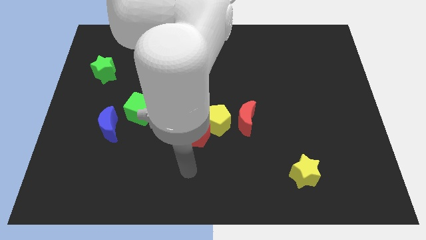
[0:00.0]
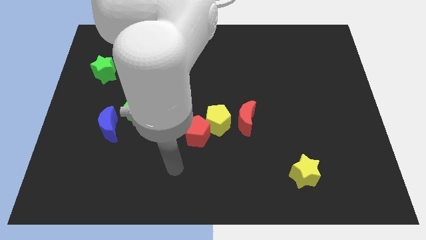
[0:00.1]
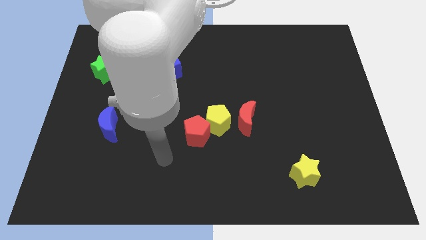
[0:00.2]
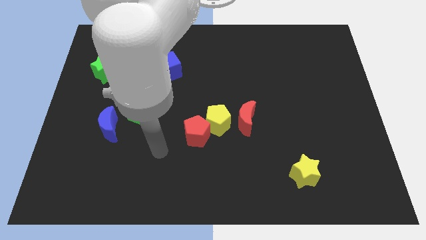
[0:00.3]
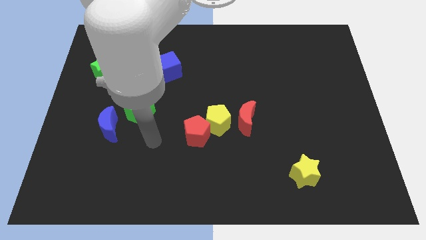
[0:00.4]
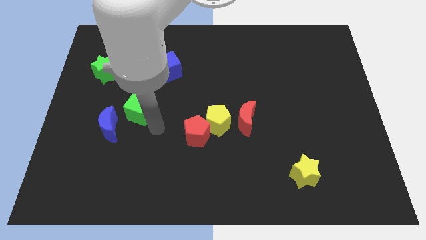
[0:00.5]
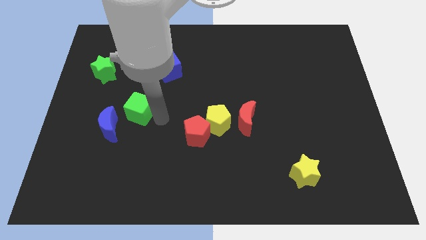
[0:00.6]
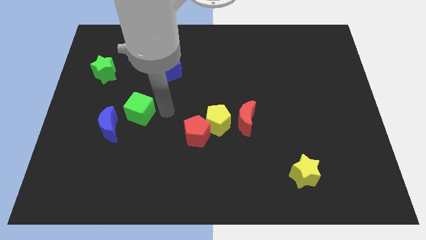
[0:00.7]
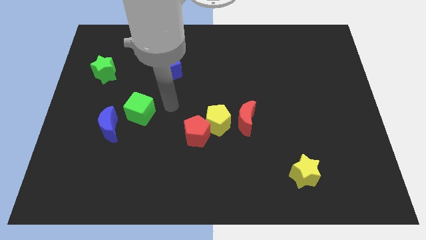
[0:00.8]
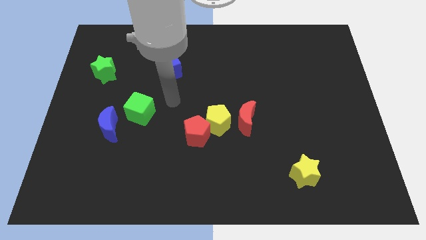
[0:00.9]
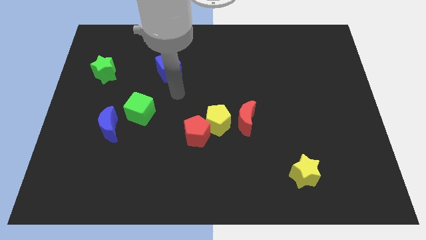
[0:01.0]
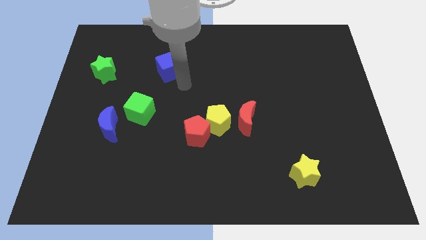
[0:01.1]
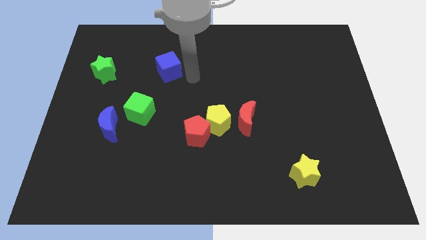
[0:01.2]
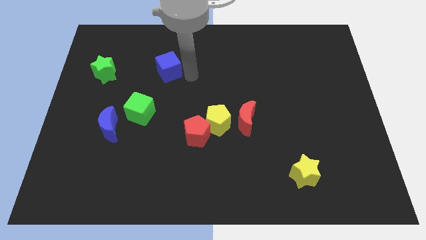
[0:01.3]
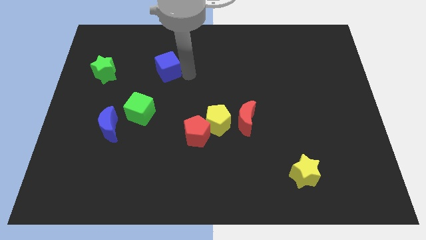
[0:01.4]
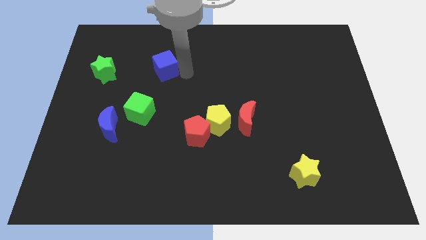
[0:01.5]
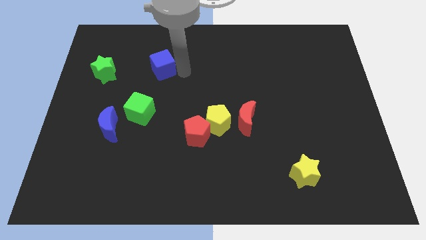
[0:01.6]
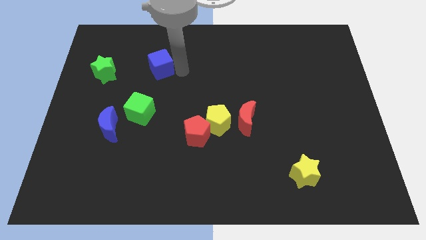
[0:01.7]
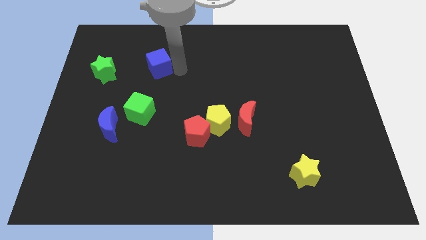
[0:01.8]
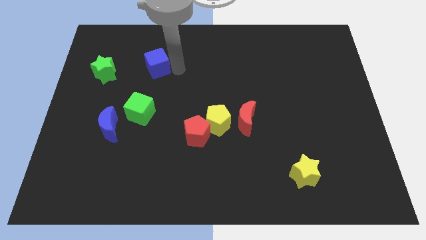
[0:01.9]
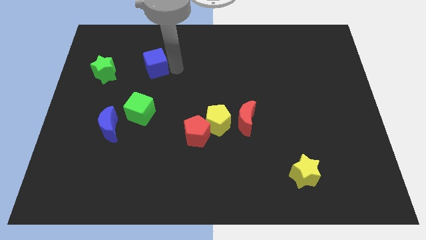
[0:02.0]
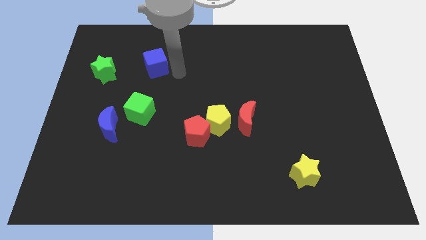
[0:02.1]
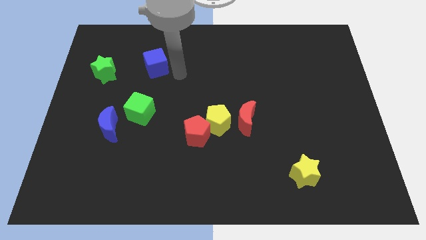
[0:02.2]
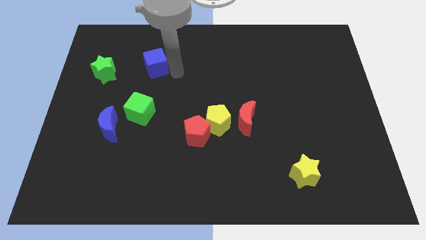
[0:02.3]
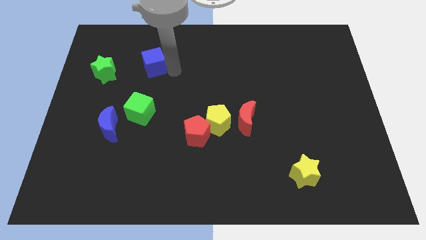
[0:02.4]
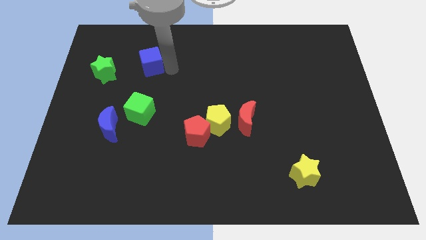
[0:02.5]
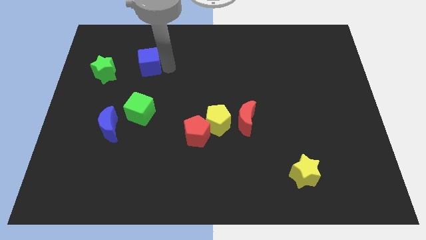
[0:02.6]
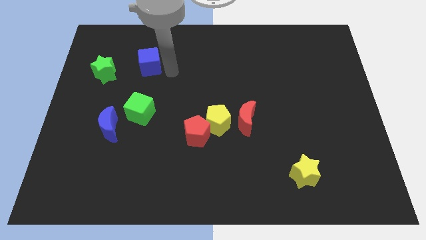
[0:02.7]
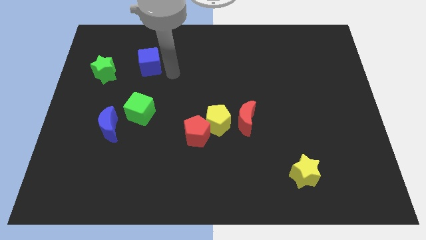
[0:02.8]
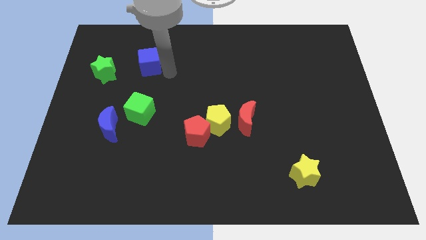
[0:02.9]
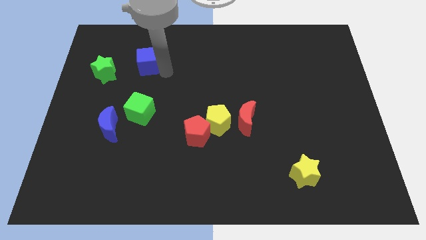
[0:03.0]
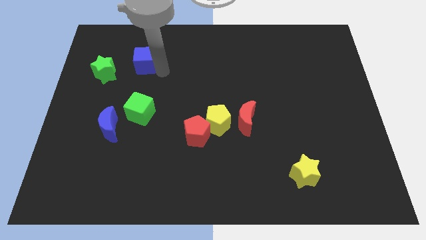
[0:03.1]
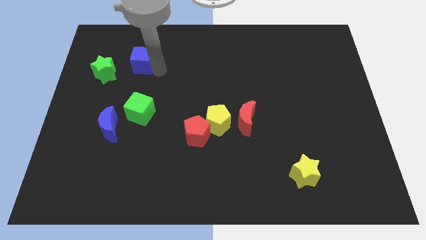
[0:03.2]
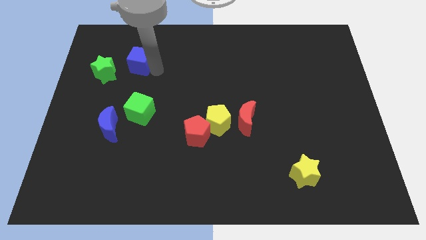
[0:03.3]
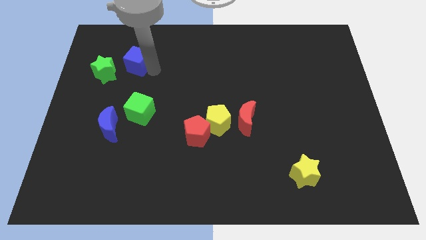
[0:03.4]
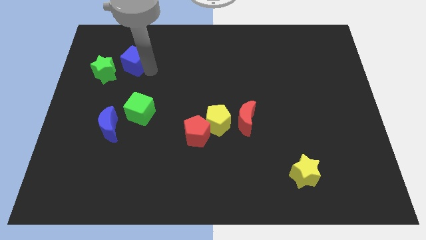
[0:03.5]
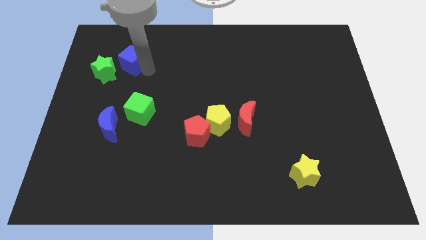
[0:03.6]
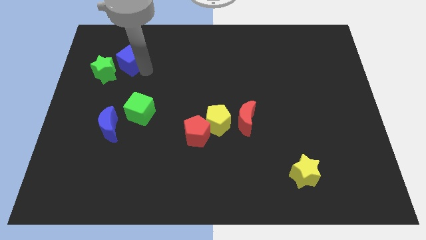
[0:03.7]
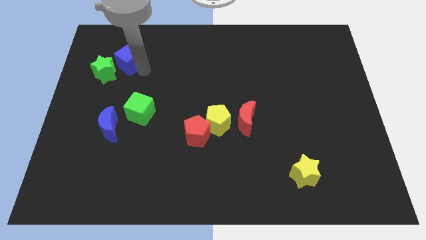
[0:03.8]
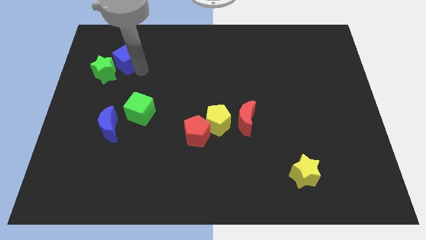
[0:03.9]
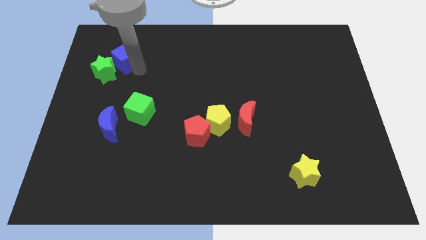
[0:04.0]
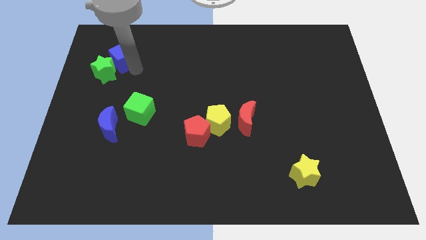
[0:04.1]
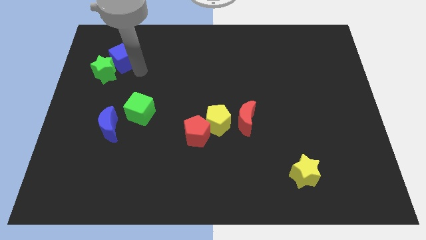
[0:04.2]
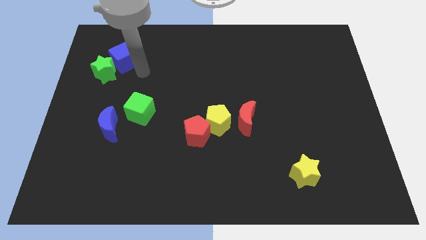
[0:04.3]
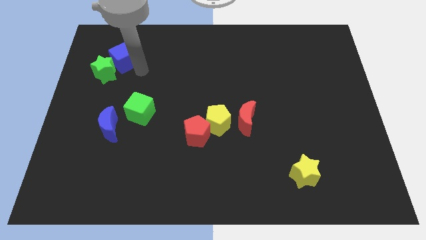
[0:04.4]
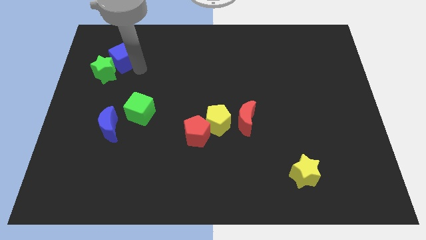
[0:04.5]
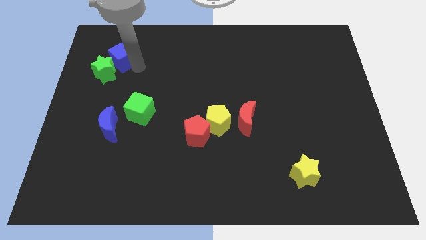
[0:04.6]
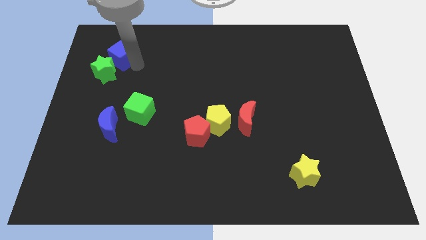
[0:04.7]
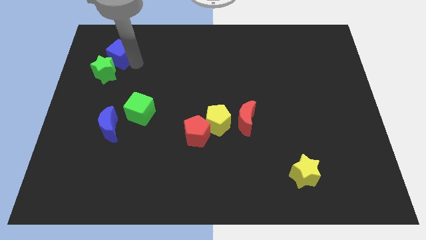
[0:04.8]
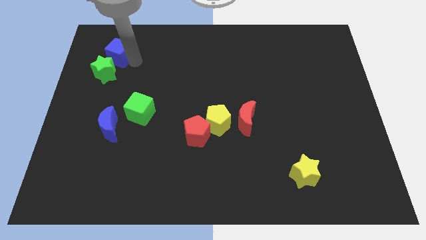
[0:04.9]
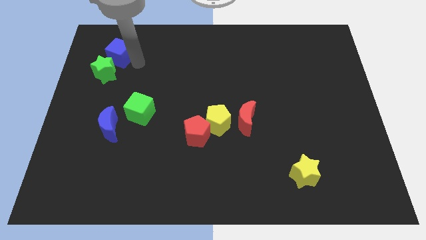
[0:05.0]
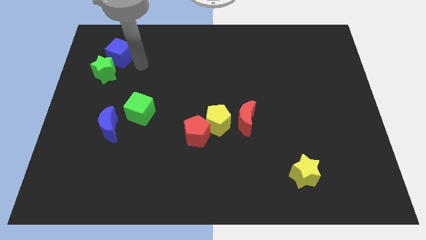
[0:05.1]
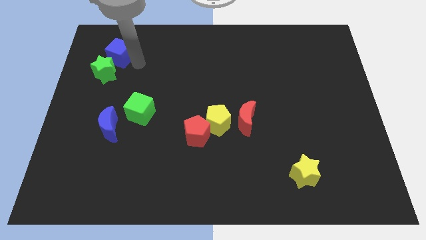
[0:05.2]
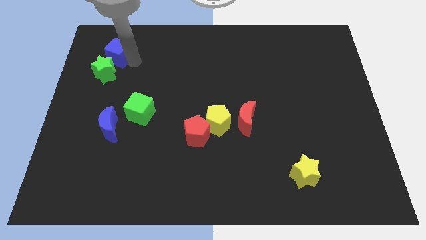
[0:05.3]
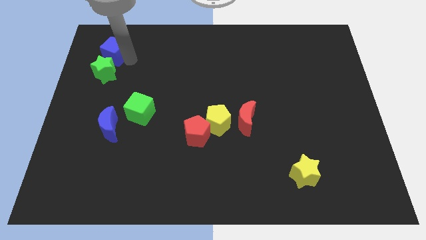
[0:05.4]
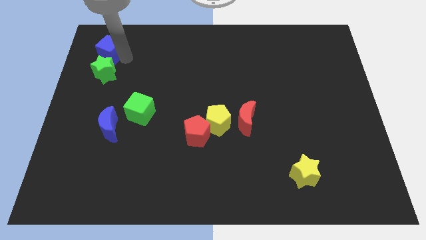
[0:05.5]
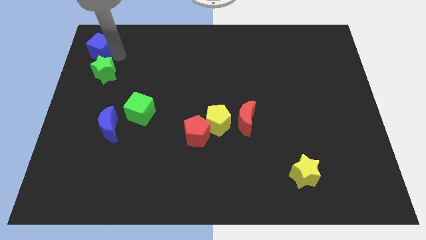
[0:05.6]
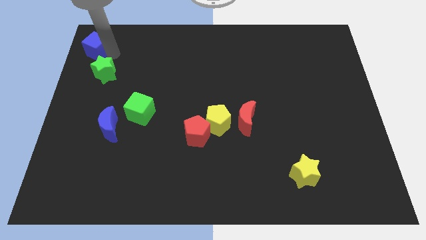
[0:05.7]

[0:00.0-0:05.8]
push the blue cube to the top left corner
